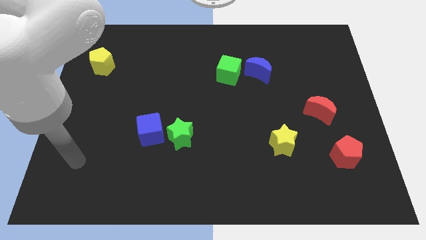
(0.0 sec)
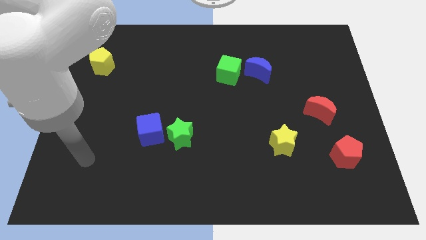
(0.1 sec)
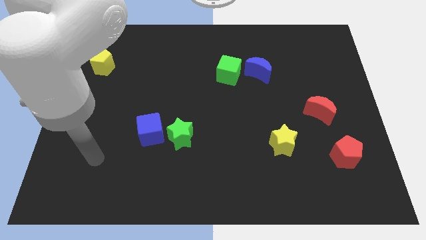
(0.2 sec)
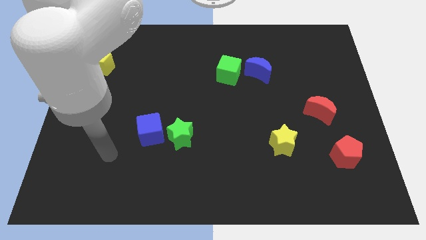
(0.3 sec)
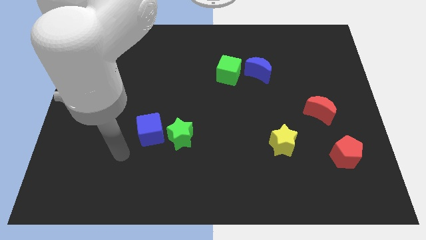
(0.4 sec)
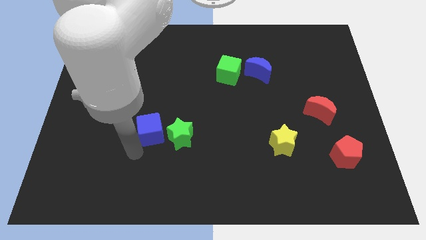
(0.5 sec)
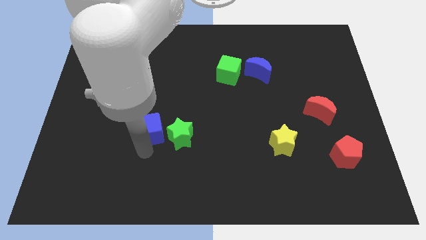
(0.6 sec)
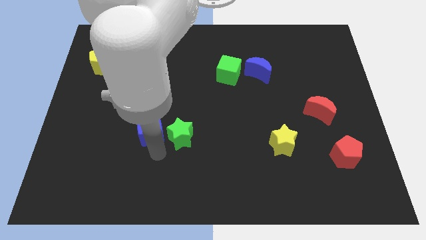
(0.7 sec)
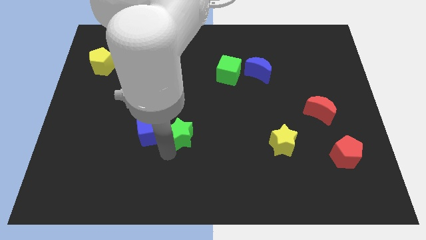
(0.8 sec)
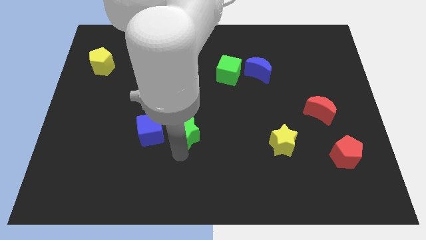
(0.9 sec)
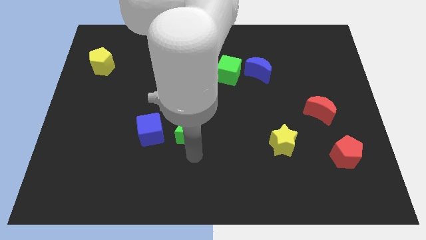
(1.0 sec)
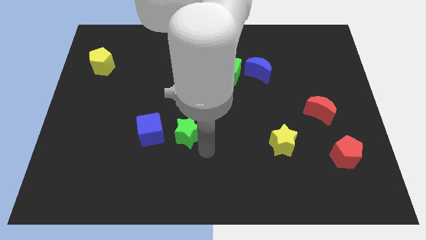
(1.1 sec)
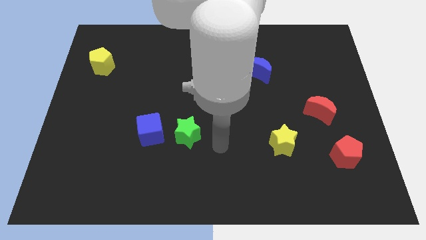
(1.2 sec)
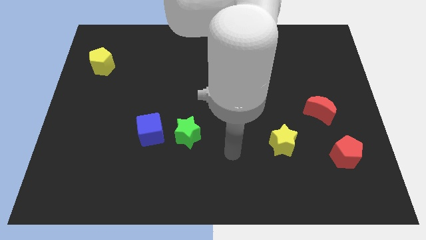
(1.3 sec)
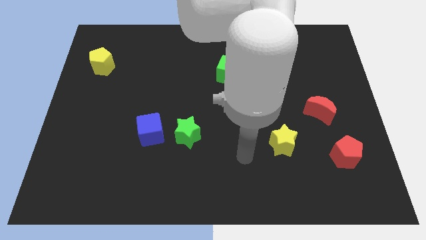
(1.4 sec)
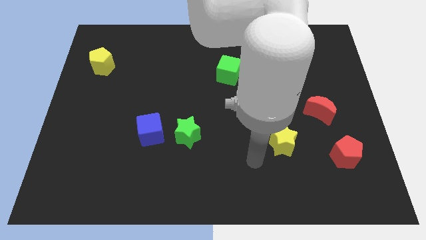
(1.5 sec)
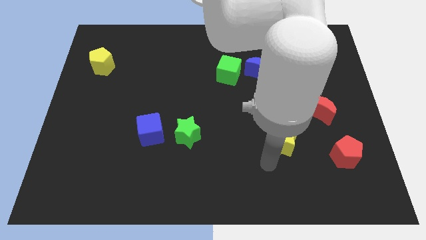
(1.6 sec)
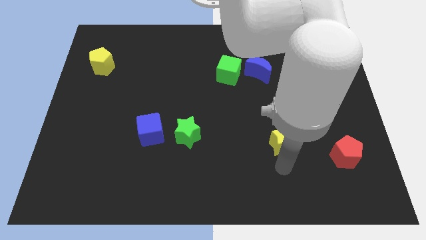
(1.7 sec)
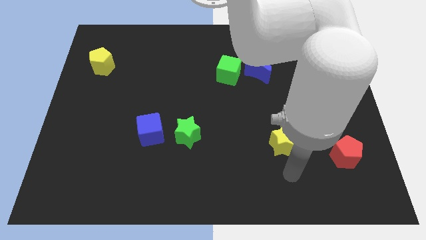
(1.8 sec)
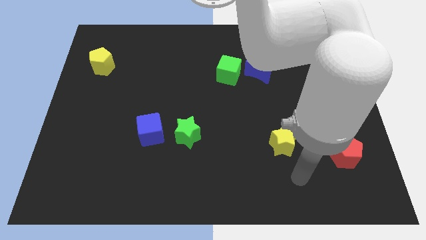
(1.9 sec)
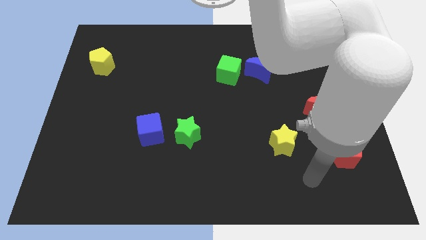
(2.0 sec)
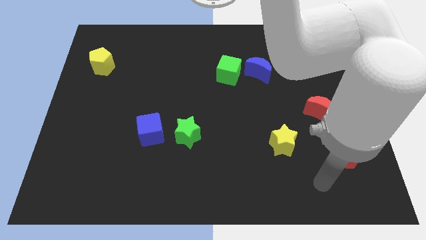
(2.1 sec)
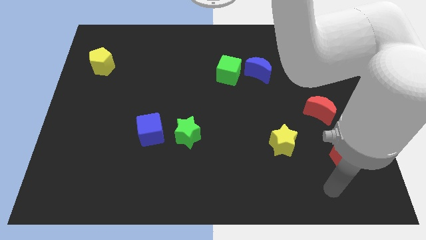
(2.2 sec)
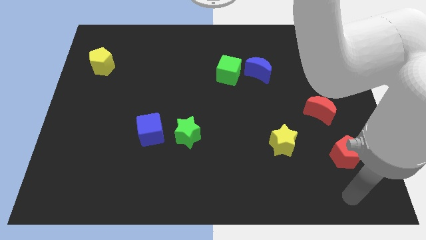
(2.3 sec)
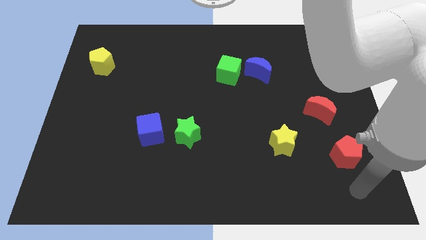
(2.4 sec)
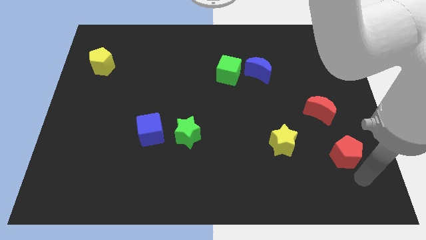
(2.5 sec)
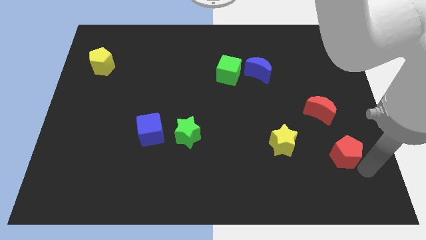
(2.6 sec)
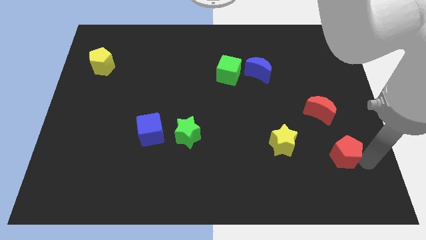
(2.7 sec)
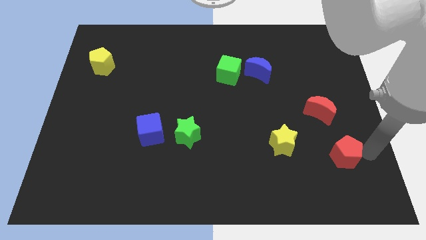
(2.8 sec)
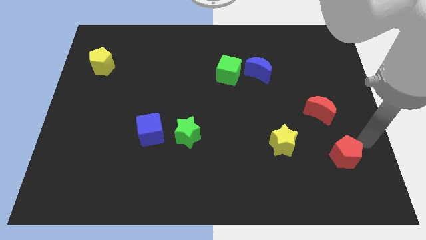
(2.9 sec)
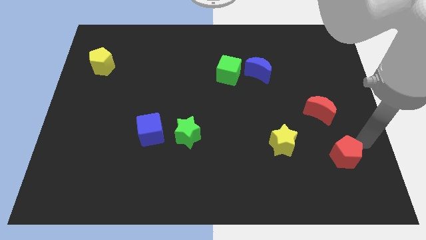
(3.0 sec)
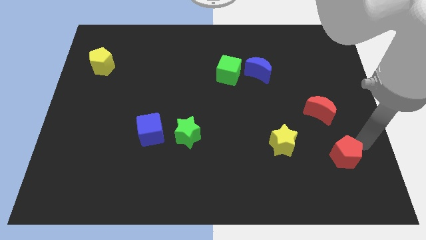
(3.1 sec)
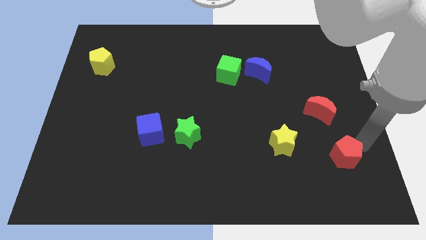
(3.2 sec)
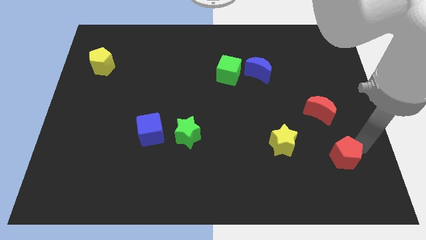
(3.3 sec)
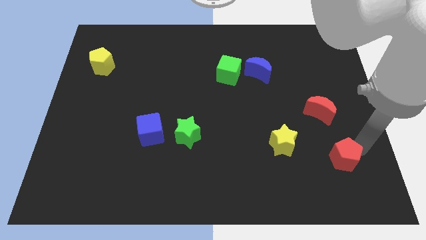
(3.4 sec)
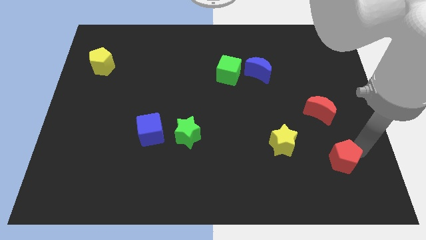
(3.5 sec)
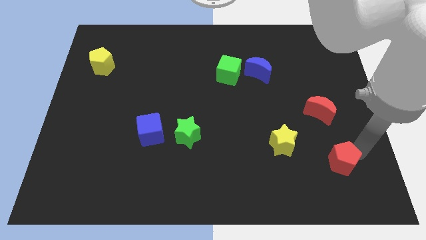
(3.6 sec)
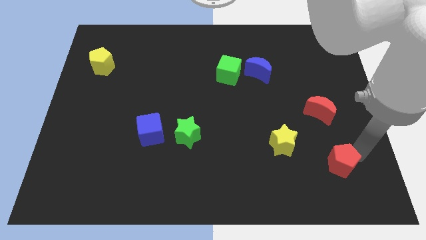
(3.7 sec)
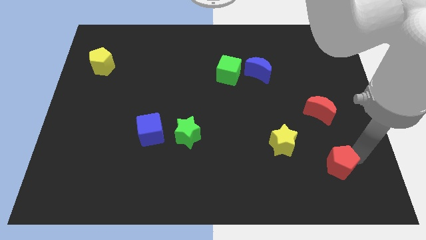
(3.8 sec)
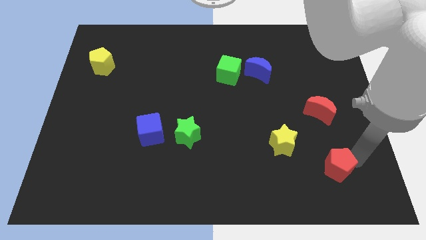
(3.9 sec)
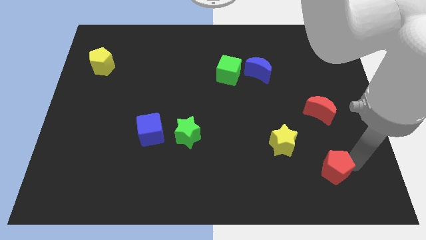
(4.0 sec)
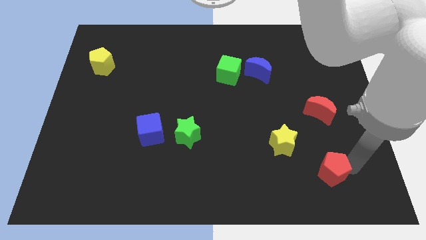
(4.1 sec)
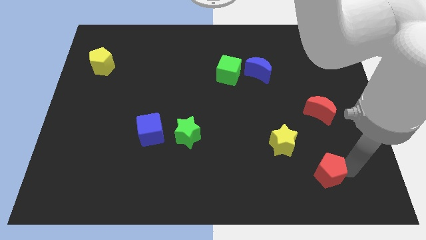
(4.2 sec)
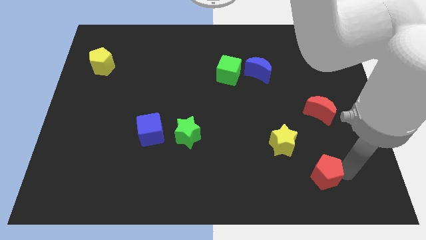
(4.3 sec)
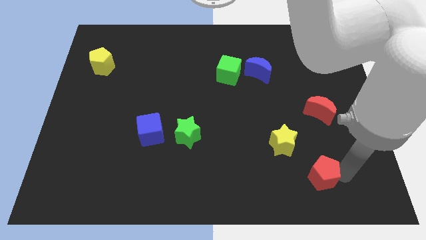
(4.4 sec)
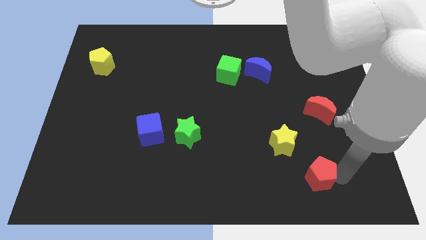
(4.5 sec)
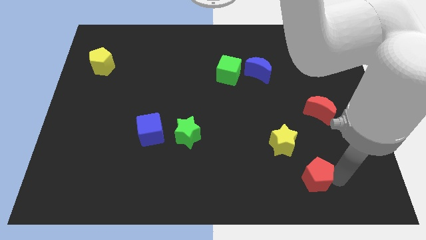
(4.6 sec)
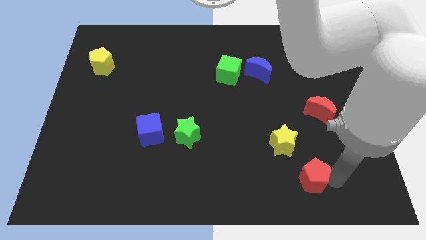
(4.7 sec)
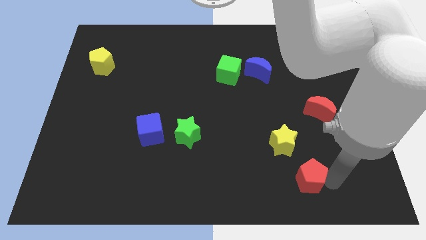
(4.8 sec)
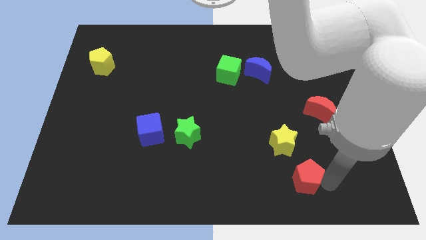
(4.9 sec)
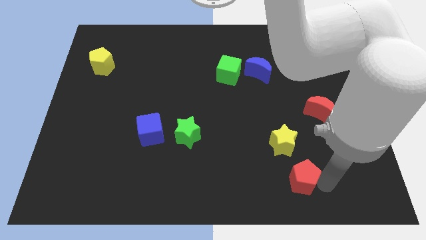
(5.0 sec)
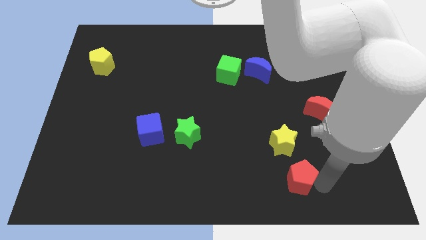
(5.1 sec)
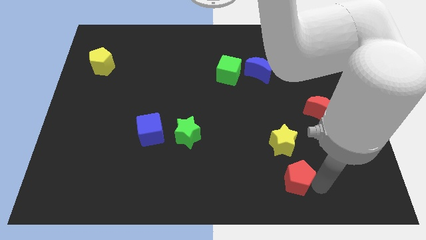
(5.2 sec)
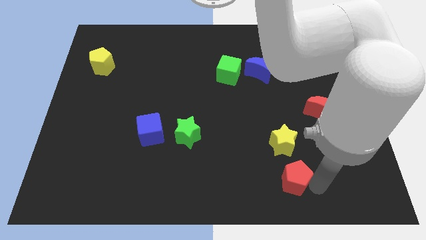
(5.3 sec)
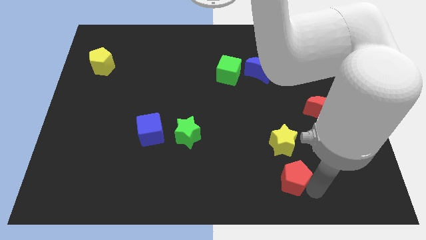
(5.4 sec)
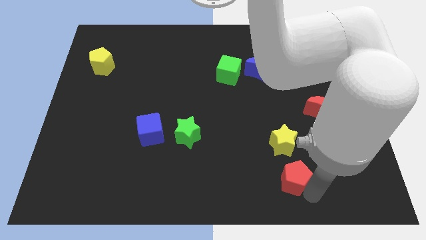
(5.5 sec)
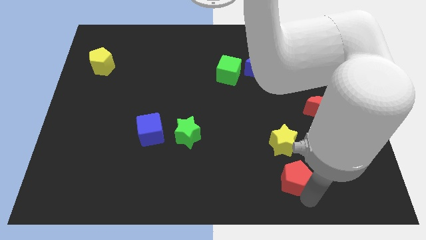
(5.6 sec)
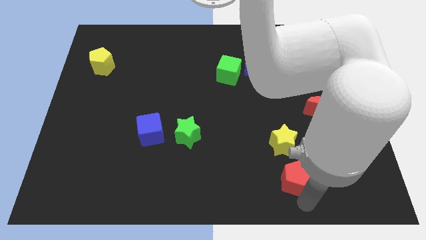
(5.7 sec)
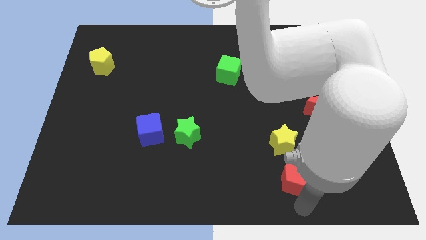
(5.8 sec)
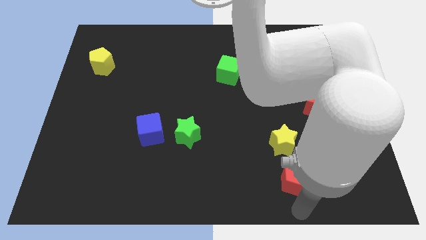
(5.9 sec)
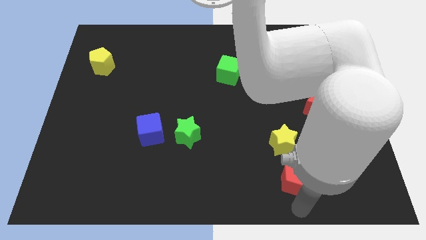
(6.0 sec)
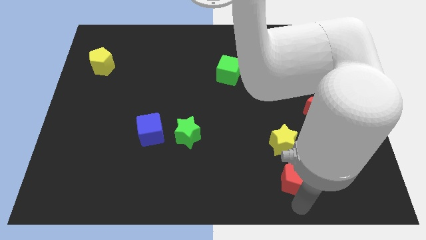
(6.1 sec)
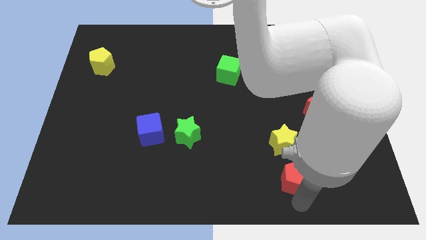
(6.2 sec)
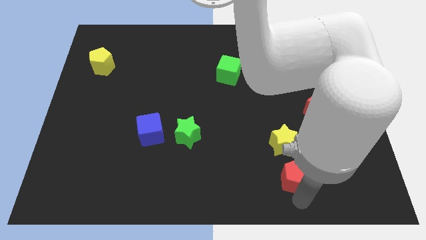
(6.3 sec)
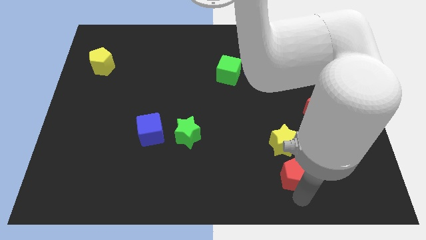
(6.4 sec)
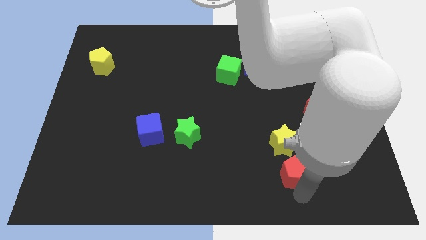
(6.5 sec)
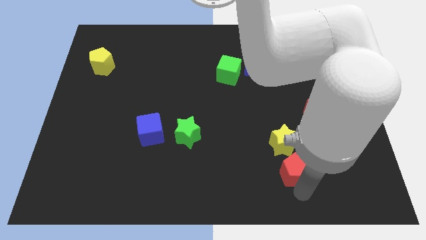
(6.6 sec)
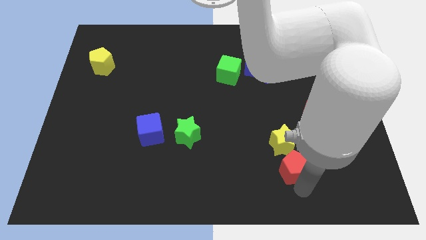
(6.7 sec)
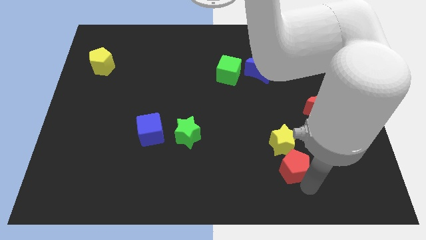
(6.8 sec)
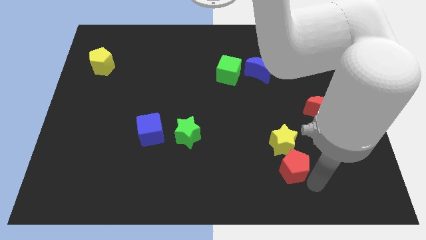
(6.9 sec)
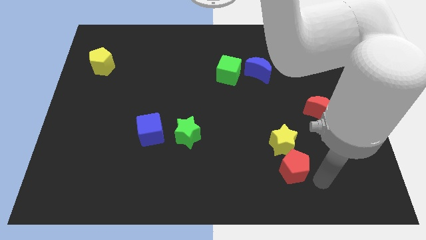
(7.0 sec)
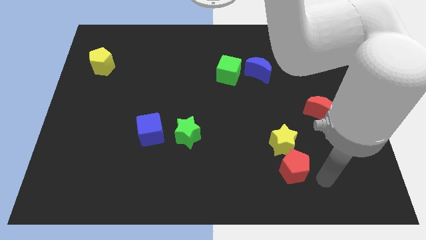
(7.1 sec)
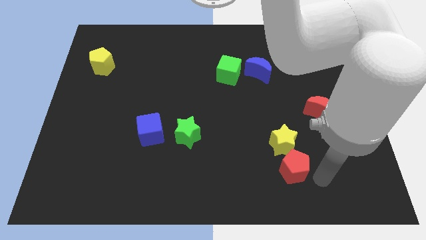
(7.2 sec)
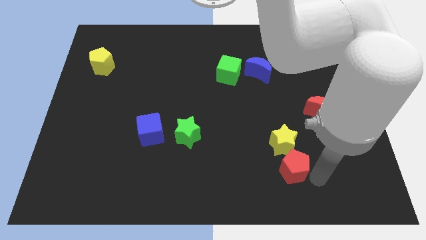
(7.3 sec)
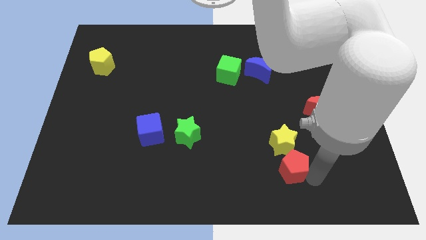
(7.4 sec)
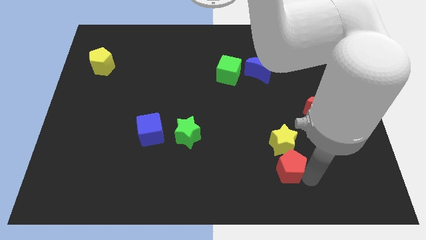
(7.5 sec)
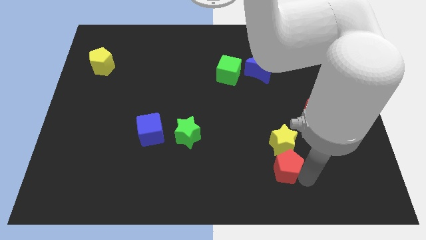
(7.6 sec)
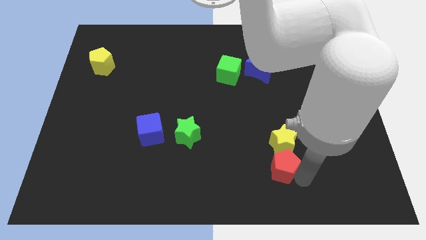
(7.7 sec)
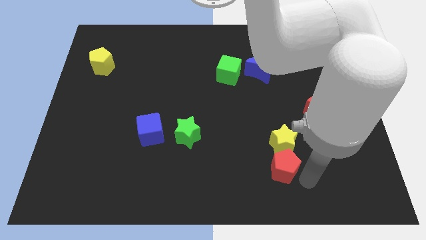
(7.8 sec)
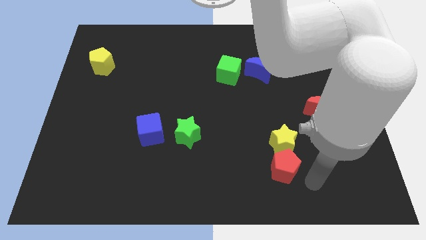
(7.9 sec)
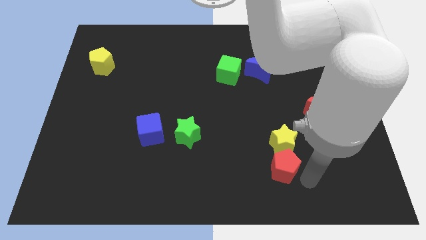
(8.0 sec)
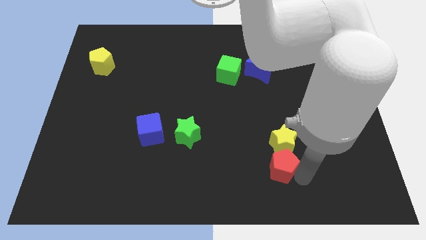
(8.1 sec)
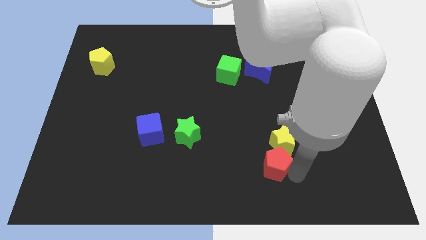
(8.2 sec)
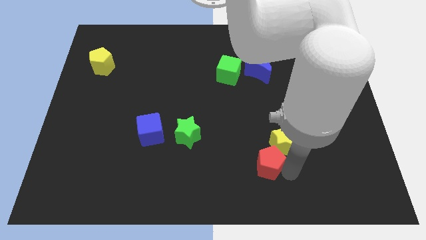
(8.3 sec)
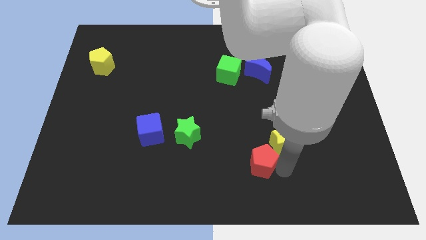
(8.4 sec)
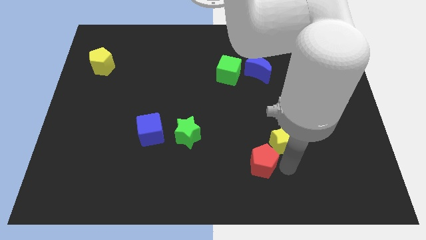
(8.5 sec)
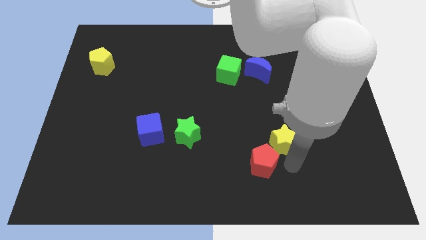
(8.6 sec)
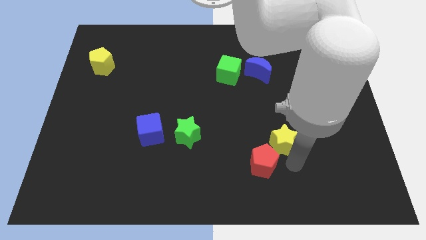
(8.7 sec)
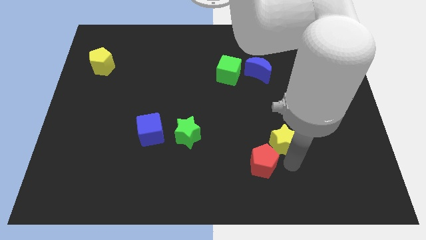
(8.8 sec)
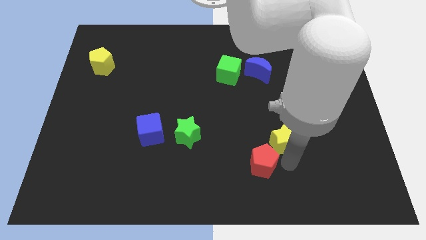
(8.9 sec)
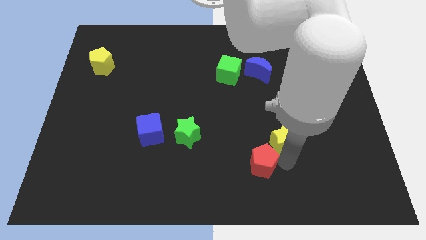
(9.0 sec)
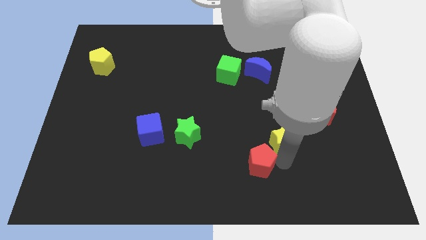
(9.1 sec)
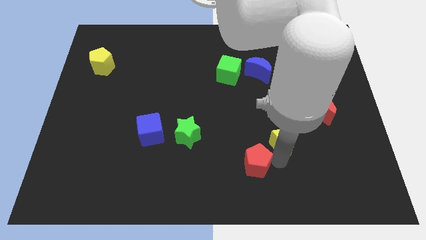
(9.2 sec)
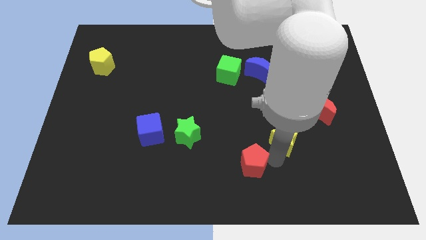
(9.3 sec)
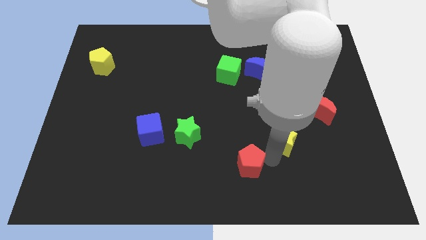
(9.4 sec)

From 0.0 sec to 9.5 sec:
slide the red pentagon left
